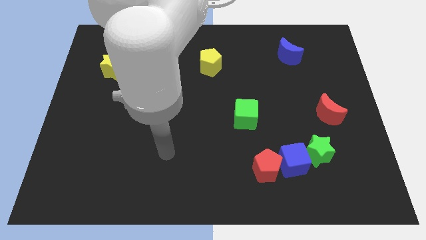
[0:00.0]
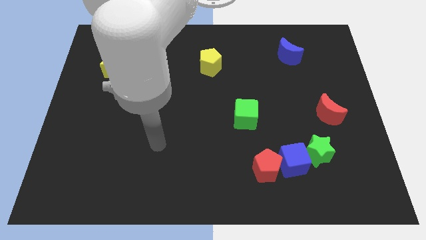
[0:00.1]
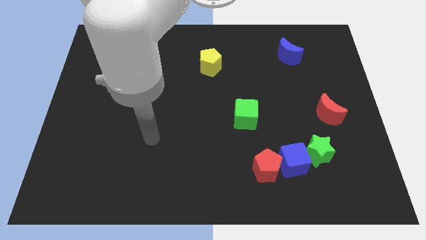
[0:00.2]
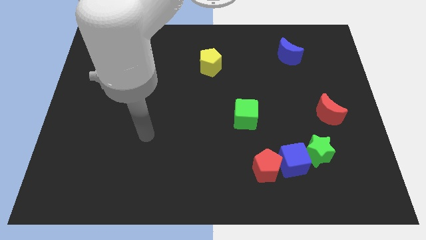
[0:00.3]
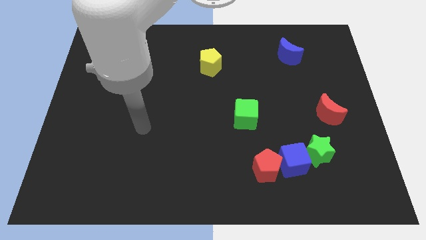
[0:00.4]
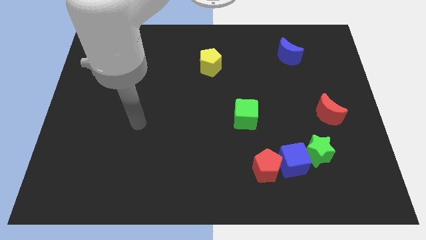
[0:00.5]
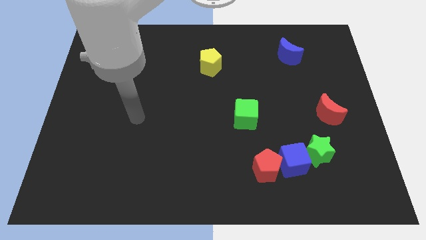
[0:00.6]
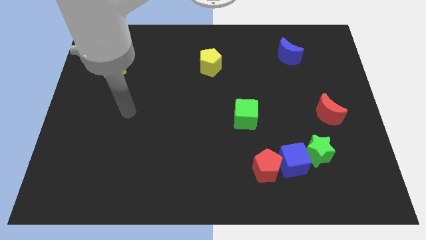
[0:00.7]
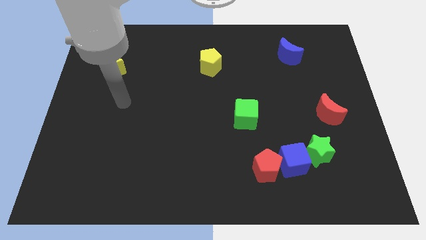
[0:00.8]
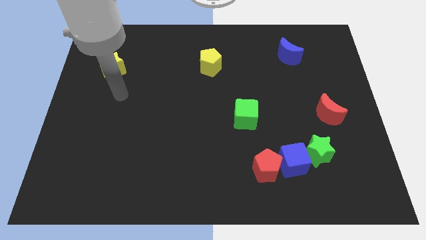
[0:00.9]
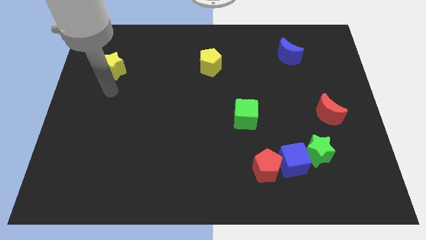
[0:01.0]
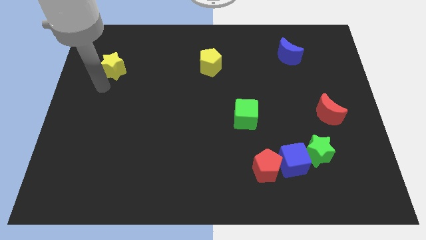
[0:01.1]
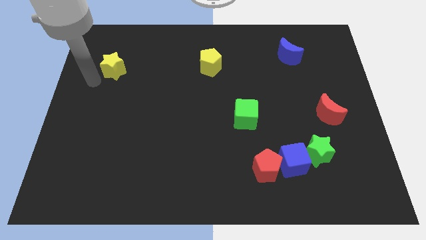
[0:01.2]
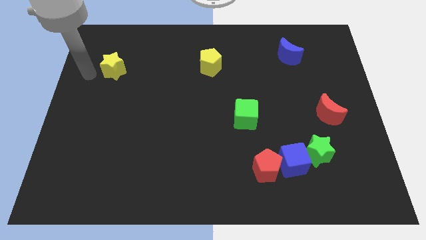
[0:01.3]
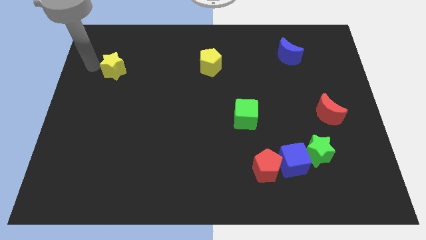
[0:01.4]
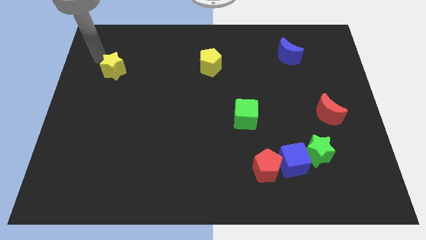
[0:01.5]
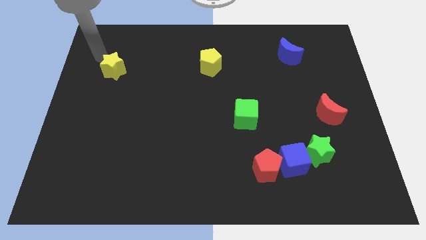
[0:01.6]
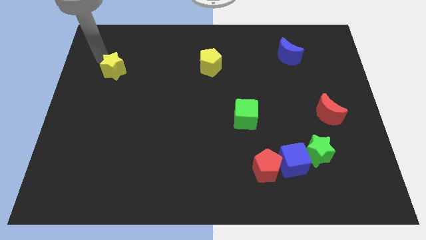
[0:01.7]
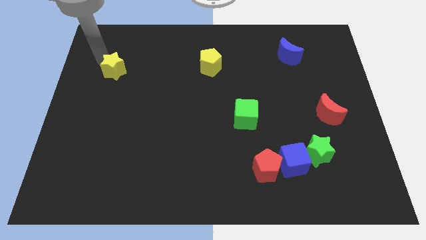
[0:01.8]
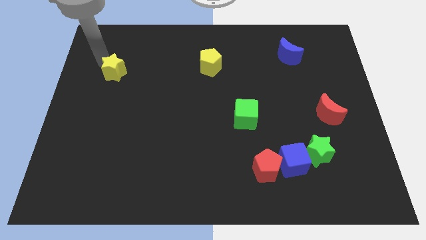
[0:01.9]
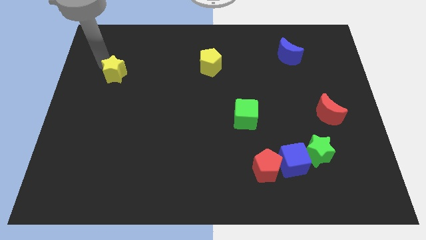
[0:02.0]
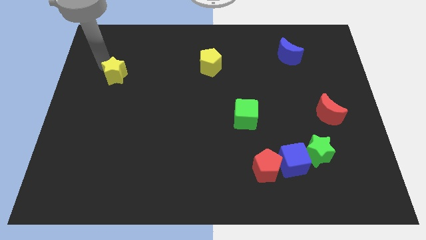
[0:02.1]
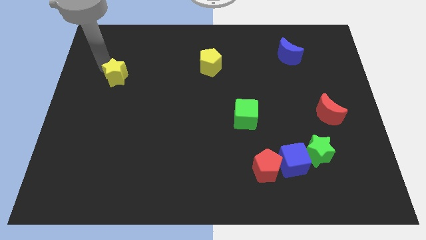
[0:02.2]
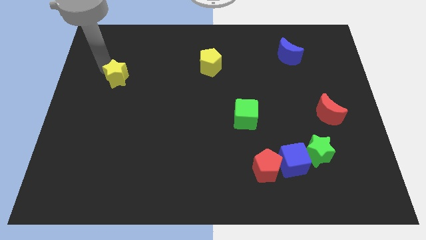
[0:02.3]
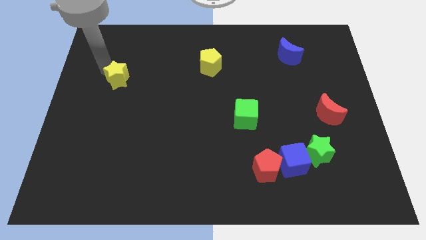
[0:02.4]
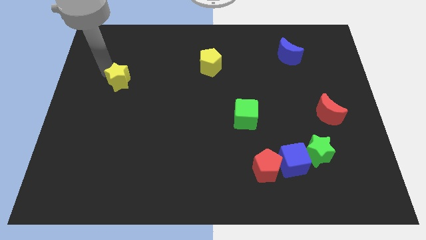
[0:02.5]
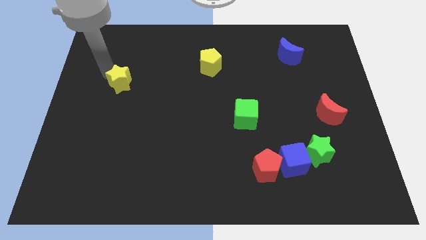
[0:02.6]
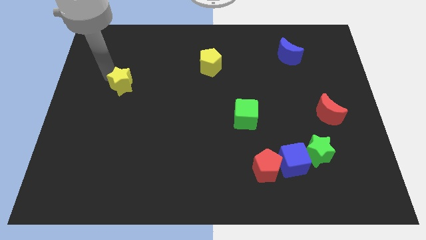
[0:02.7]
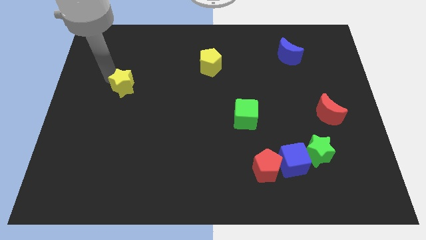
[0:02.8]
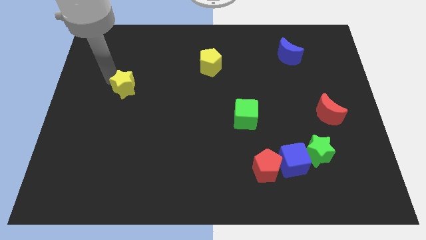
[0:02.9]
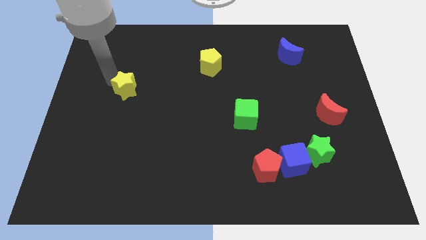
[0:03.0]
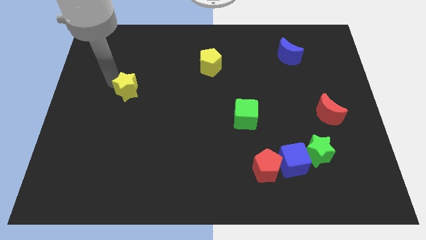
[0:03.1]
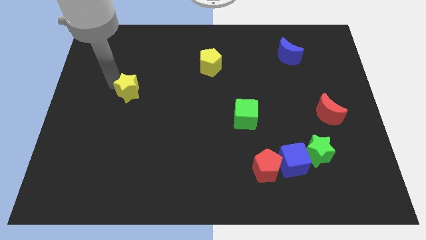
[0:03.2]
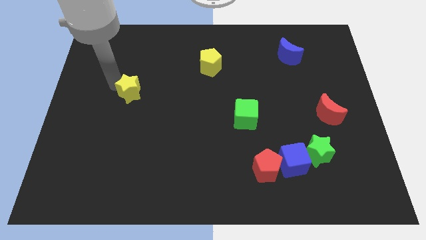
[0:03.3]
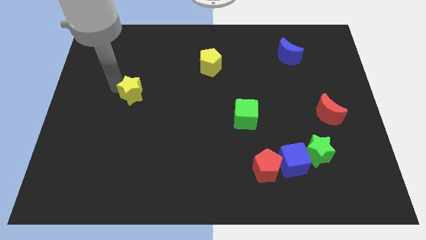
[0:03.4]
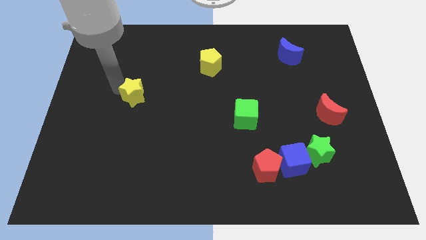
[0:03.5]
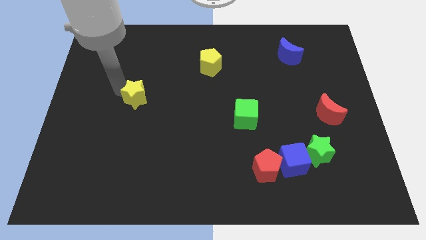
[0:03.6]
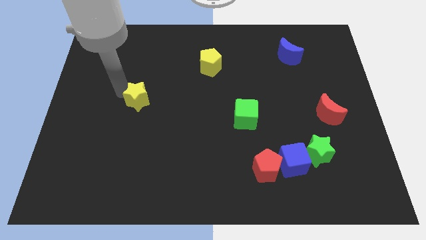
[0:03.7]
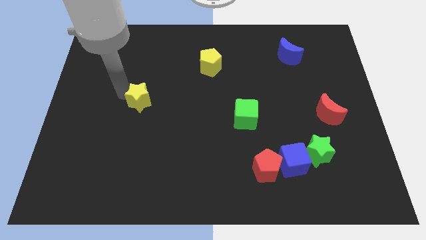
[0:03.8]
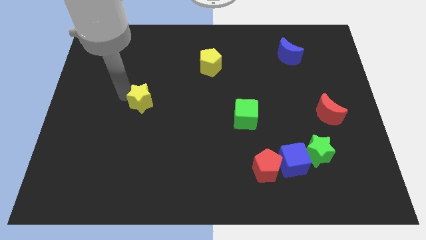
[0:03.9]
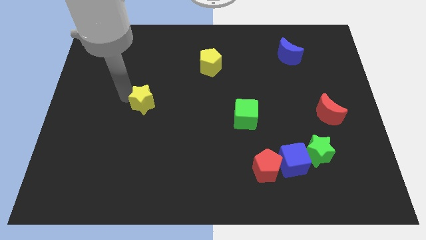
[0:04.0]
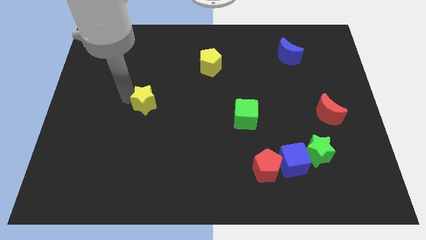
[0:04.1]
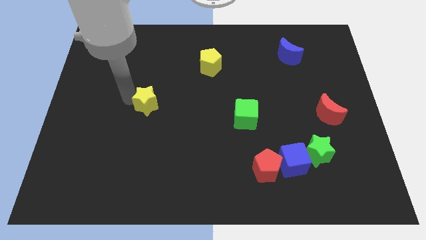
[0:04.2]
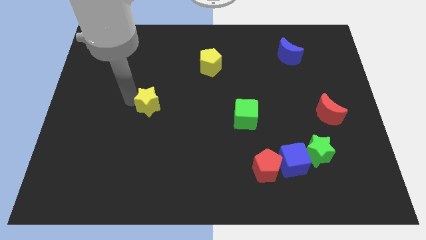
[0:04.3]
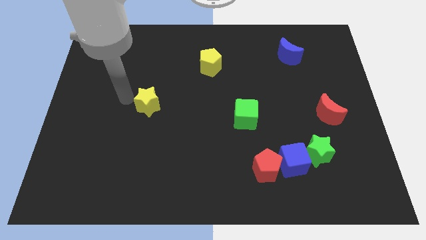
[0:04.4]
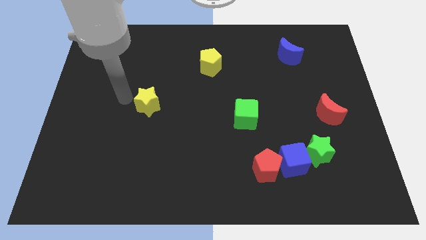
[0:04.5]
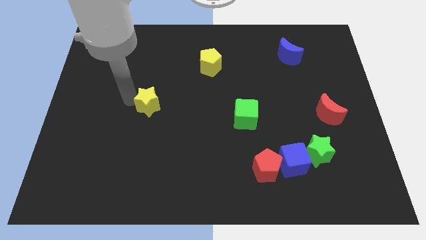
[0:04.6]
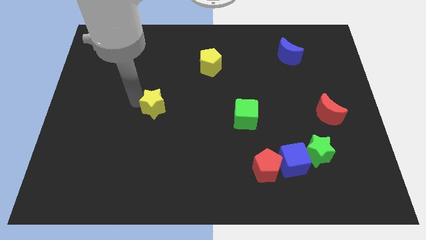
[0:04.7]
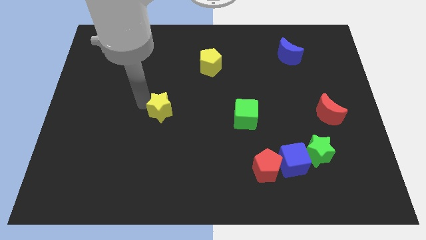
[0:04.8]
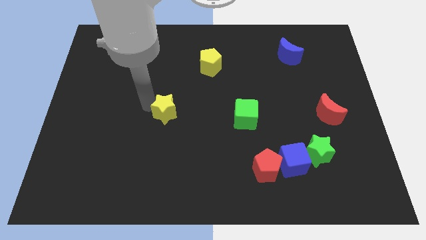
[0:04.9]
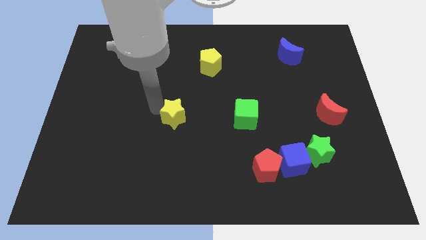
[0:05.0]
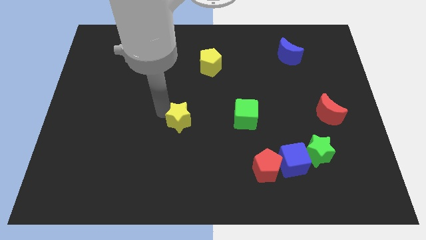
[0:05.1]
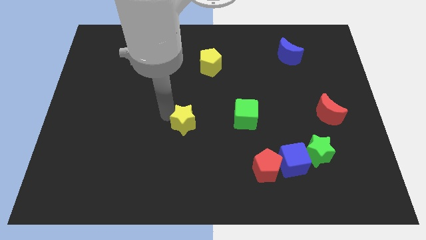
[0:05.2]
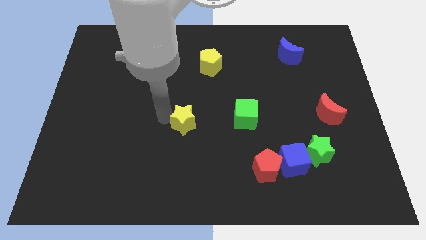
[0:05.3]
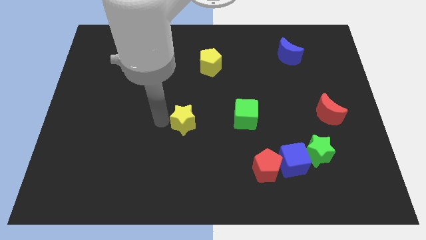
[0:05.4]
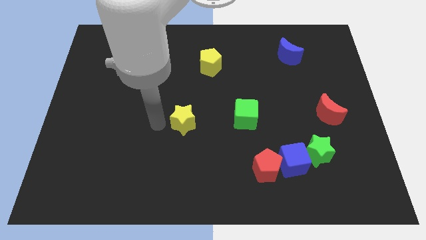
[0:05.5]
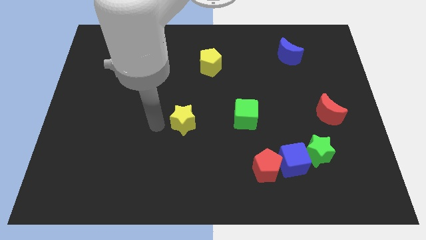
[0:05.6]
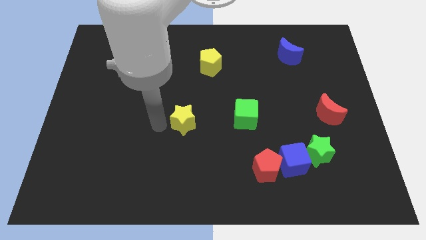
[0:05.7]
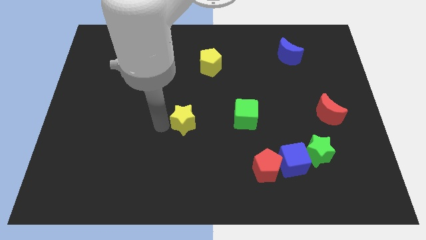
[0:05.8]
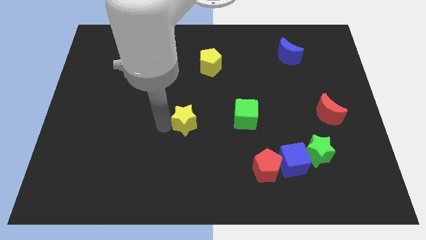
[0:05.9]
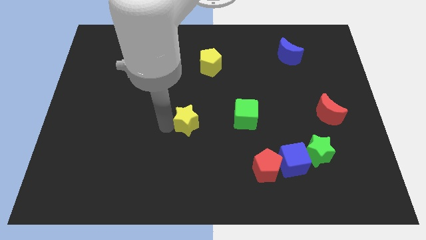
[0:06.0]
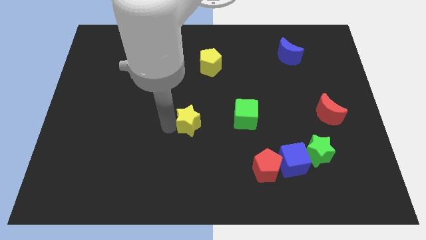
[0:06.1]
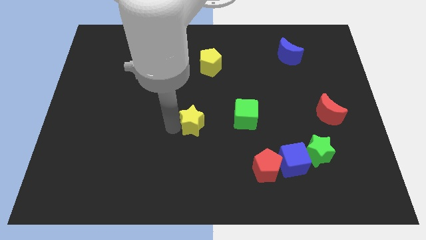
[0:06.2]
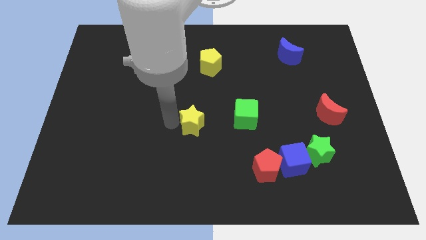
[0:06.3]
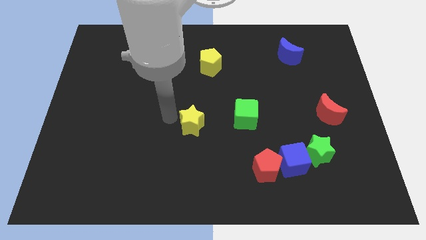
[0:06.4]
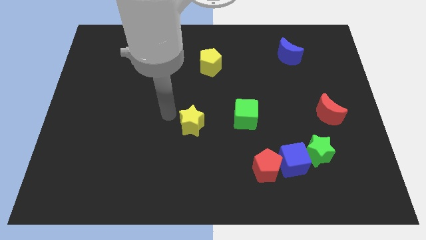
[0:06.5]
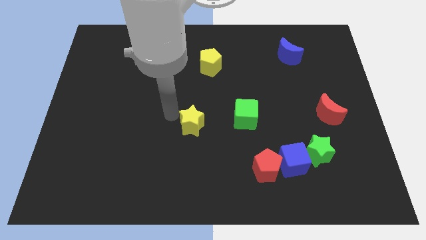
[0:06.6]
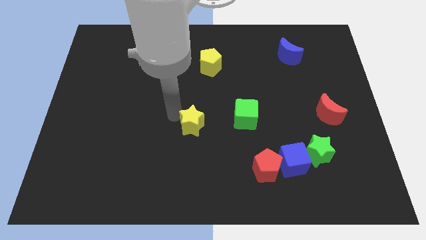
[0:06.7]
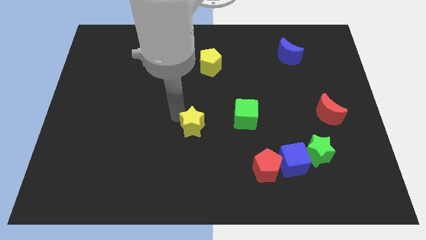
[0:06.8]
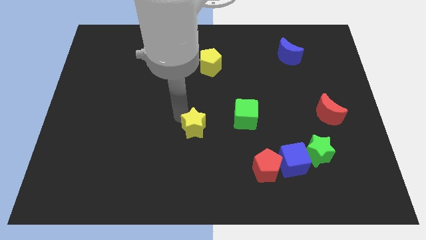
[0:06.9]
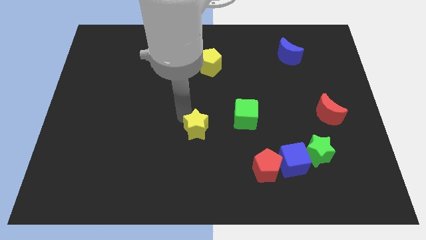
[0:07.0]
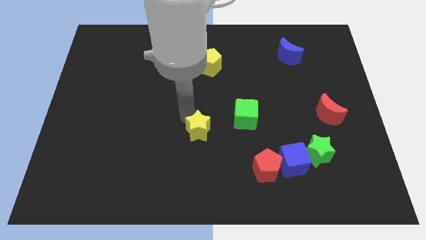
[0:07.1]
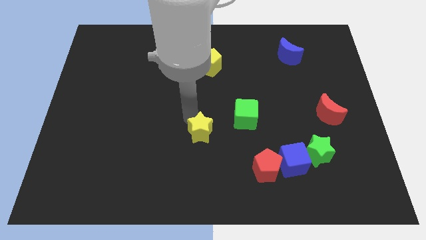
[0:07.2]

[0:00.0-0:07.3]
put the yellow star diagonally down and to the left of the green cube
